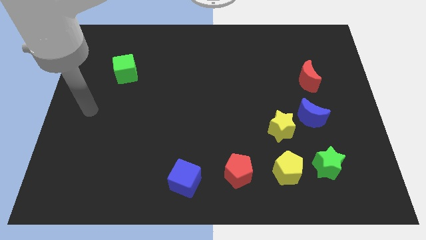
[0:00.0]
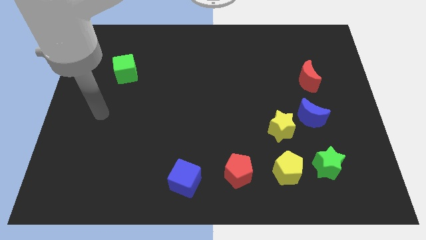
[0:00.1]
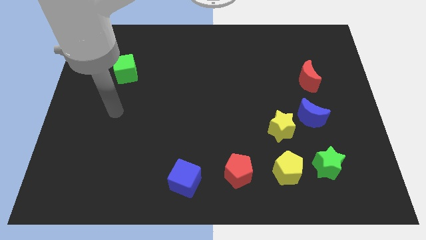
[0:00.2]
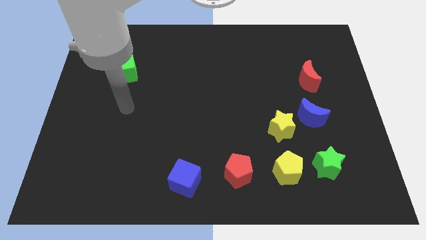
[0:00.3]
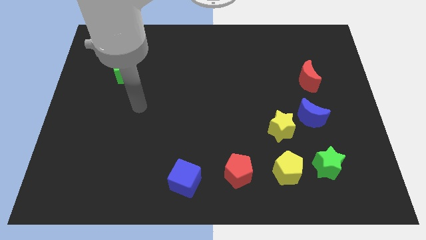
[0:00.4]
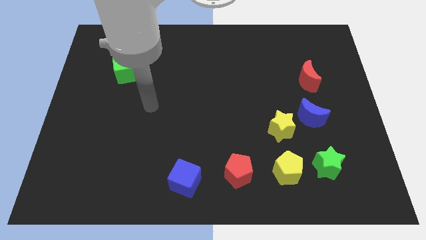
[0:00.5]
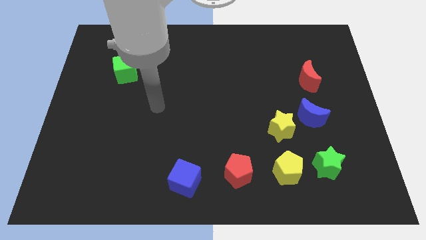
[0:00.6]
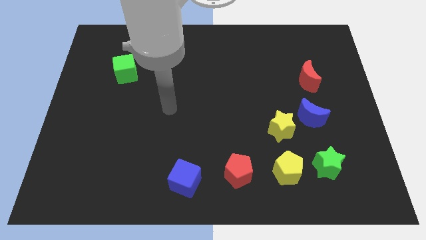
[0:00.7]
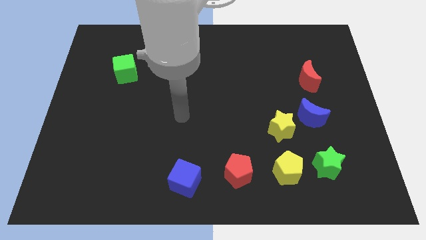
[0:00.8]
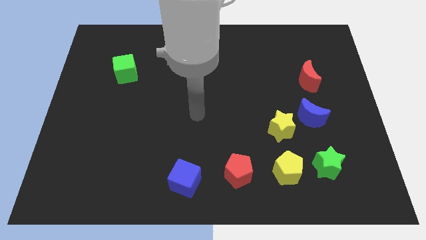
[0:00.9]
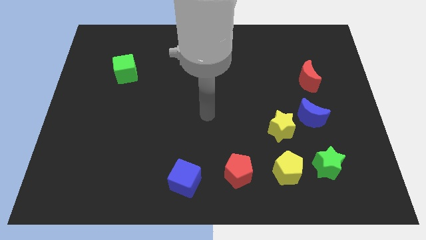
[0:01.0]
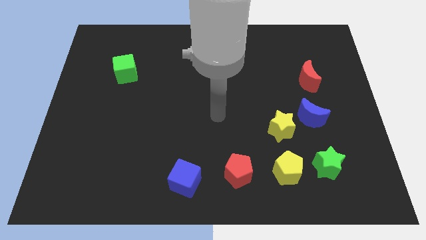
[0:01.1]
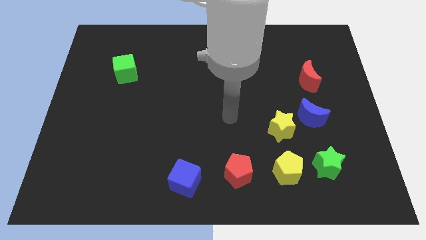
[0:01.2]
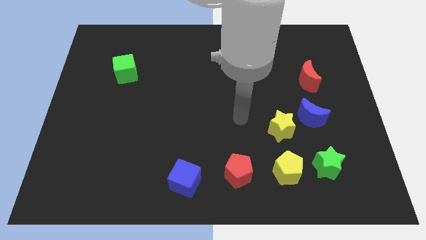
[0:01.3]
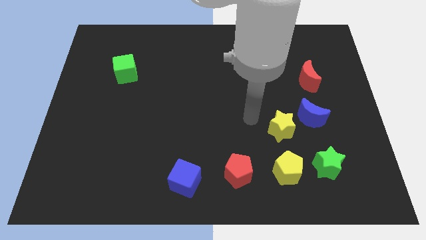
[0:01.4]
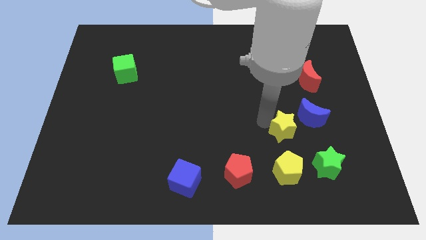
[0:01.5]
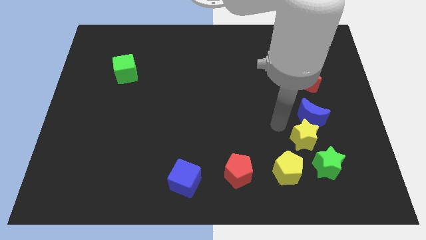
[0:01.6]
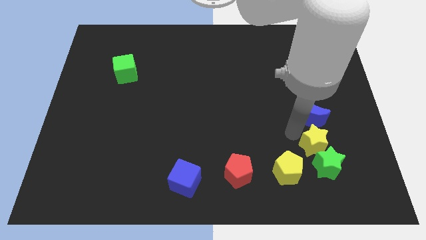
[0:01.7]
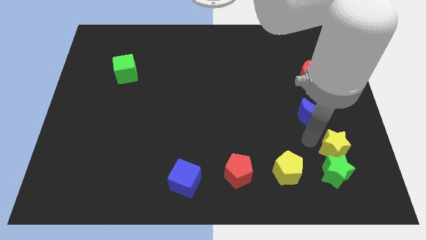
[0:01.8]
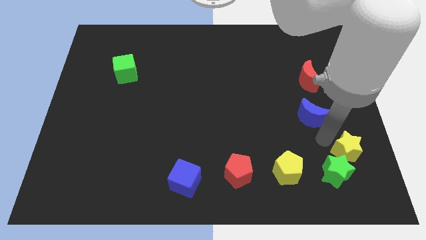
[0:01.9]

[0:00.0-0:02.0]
separate the blue moon from the yellow star

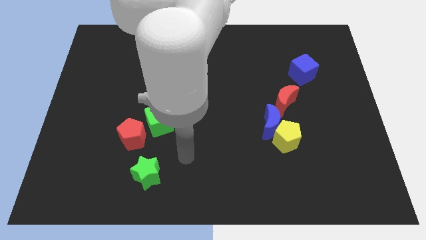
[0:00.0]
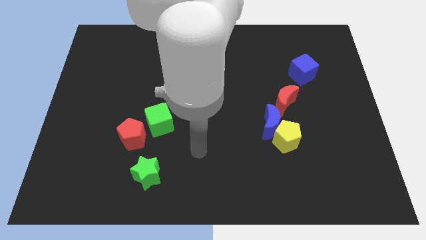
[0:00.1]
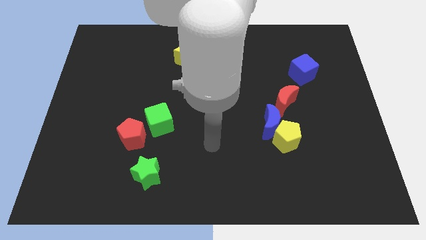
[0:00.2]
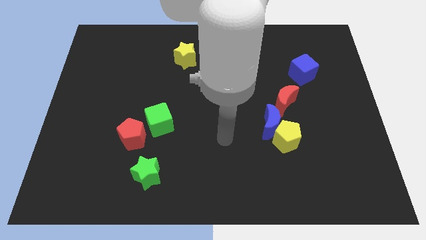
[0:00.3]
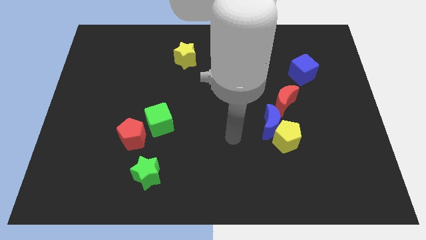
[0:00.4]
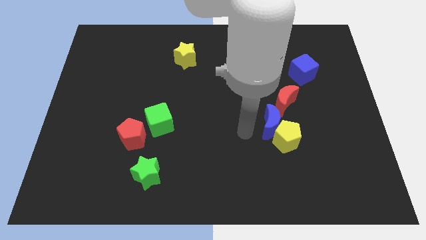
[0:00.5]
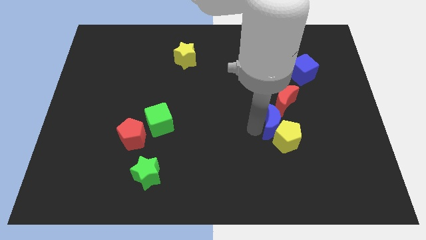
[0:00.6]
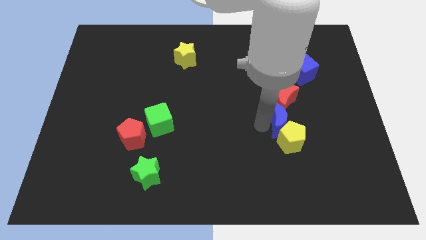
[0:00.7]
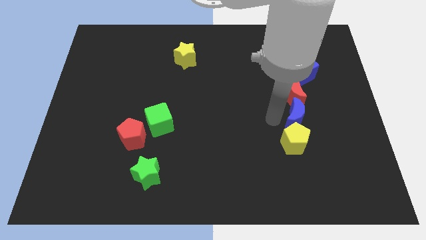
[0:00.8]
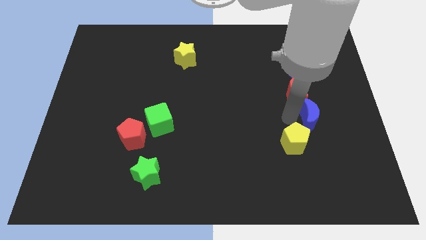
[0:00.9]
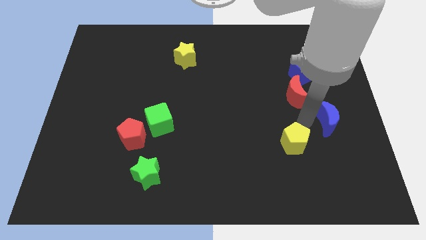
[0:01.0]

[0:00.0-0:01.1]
move the yellow pentagon away from the blue moon

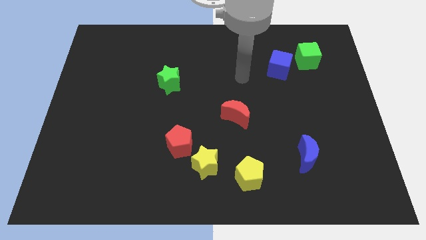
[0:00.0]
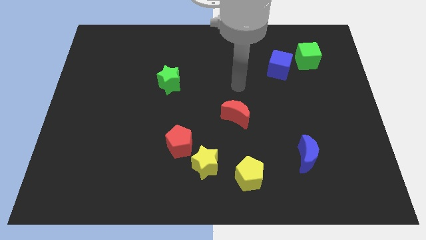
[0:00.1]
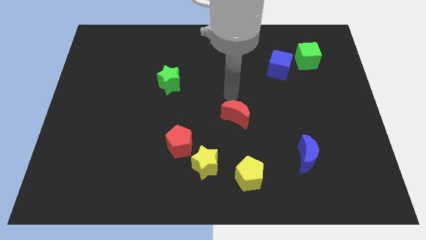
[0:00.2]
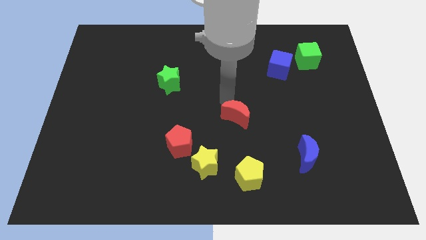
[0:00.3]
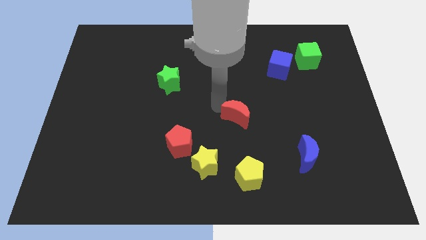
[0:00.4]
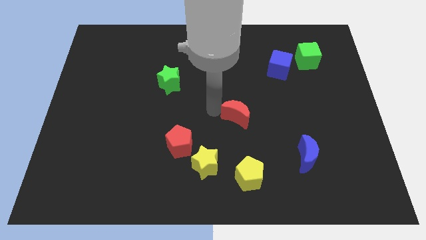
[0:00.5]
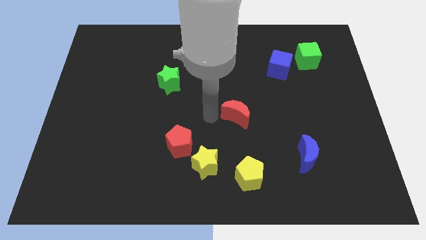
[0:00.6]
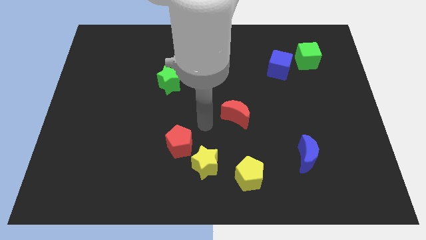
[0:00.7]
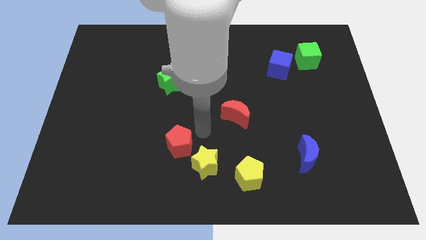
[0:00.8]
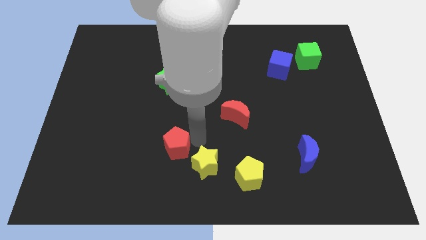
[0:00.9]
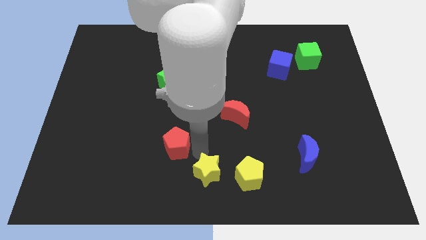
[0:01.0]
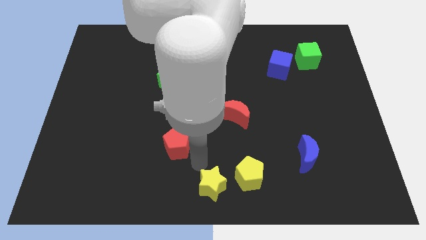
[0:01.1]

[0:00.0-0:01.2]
separate the red pentagon from the yellow star

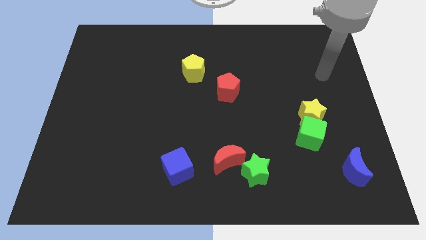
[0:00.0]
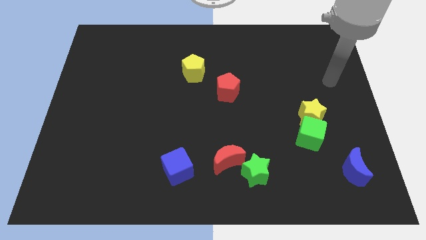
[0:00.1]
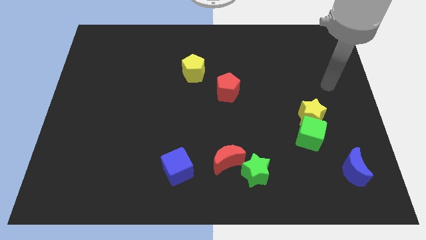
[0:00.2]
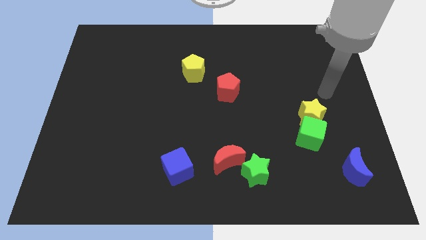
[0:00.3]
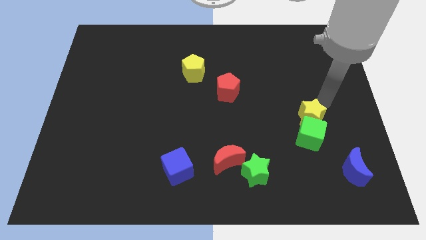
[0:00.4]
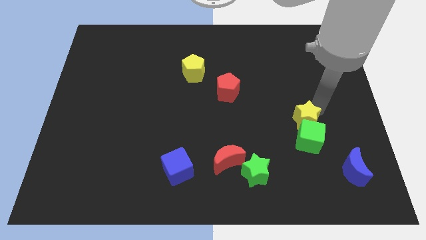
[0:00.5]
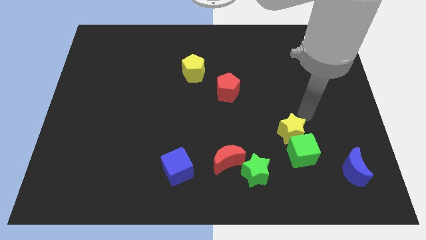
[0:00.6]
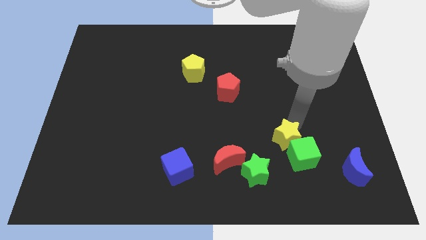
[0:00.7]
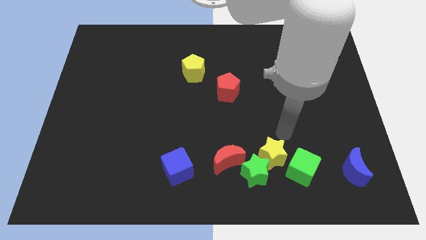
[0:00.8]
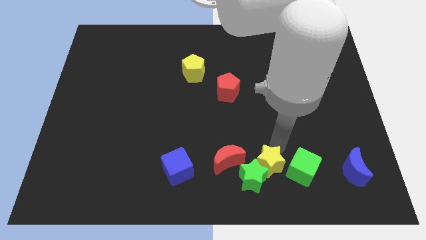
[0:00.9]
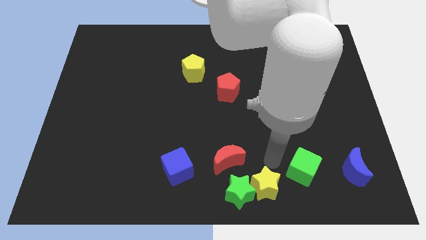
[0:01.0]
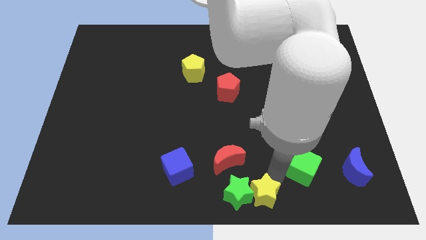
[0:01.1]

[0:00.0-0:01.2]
move the green cube away from the yellow star

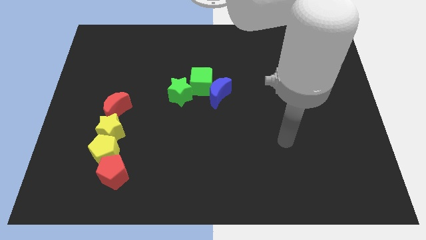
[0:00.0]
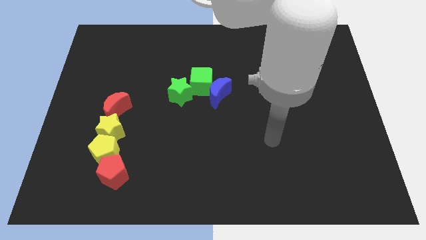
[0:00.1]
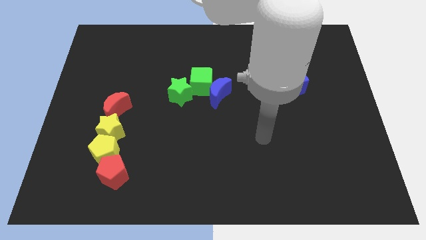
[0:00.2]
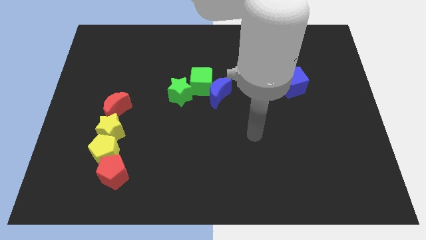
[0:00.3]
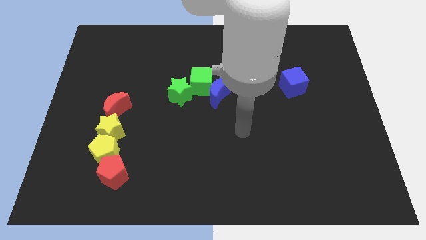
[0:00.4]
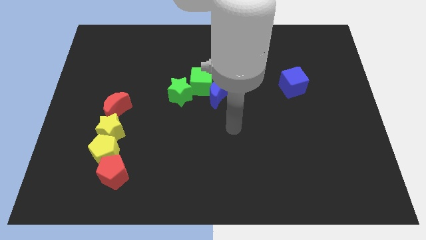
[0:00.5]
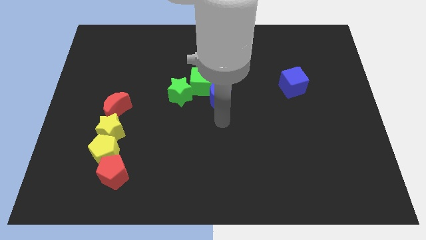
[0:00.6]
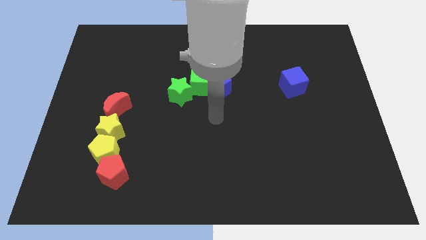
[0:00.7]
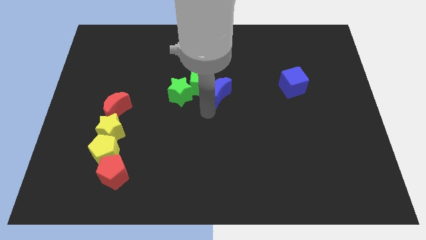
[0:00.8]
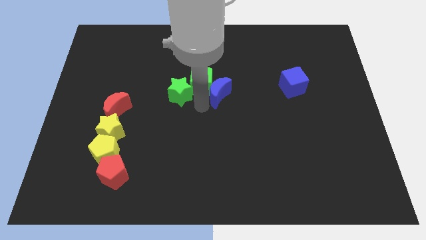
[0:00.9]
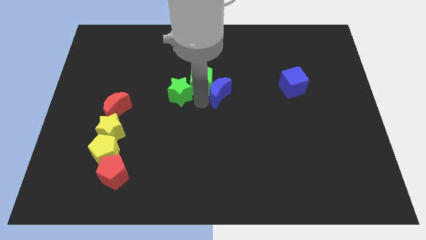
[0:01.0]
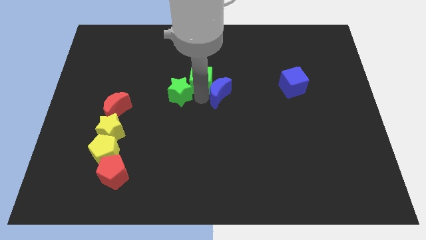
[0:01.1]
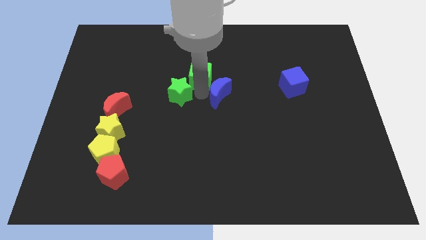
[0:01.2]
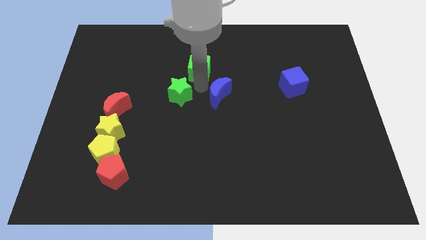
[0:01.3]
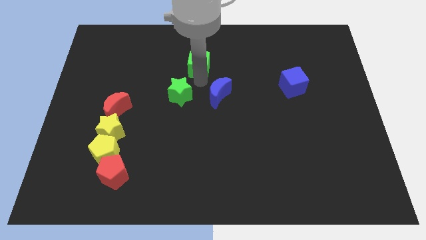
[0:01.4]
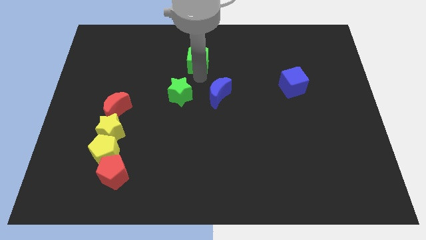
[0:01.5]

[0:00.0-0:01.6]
move the green cube away from the blue moon and green star

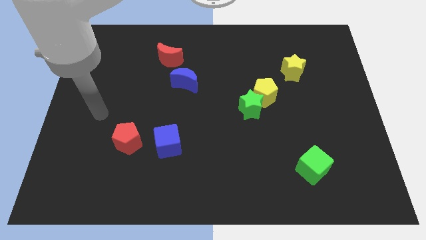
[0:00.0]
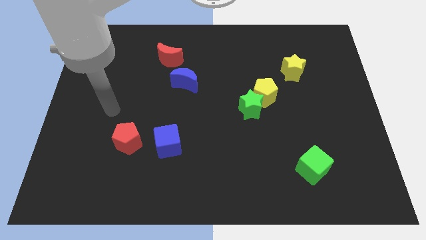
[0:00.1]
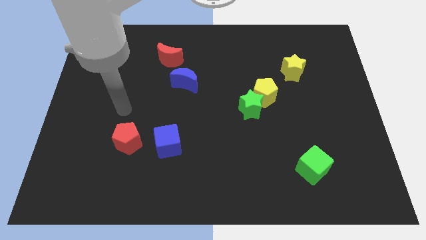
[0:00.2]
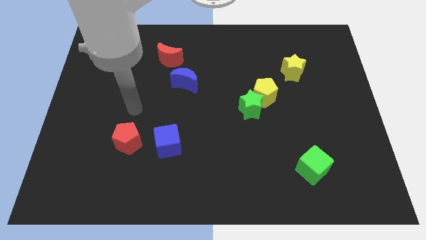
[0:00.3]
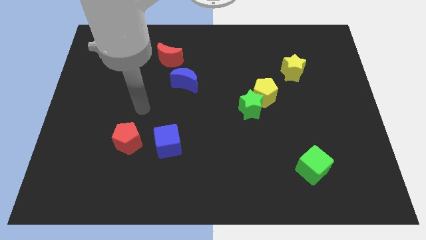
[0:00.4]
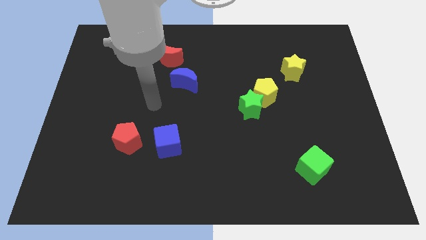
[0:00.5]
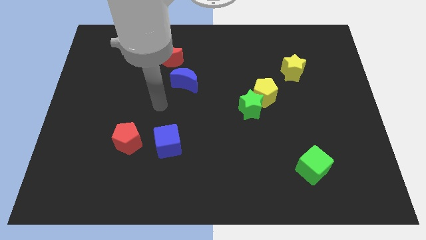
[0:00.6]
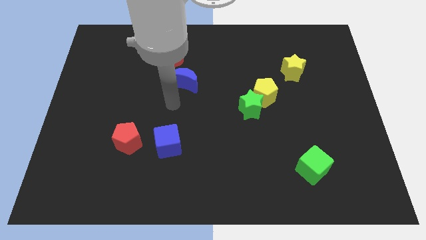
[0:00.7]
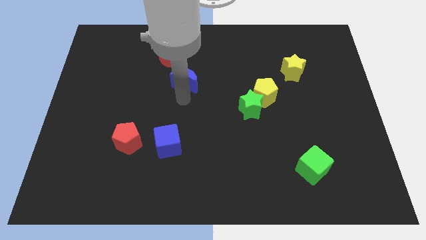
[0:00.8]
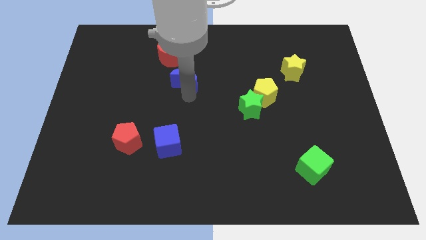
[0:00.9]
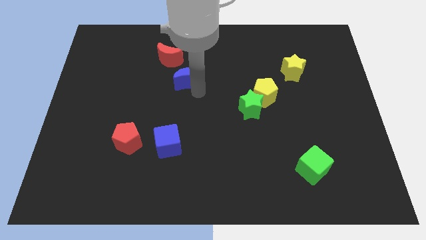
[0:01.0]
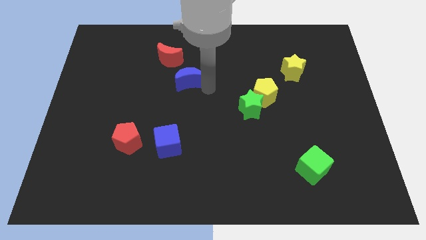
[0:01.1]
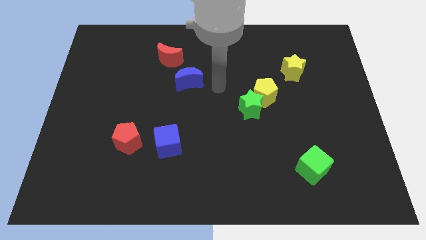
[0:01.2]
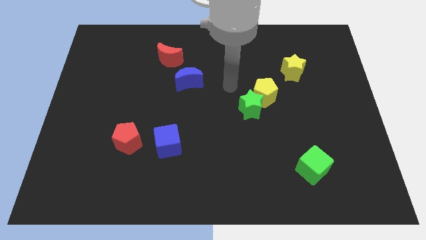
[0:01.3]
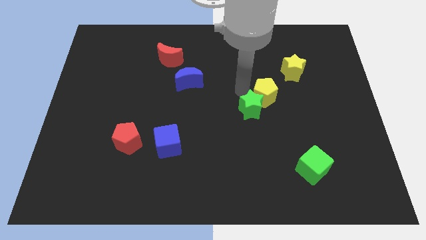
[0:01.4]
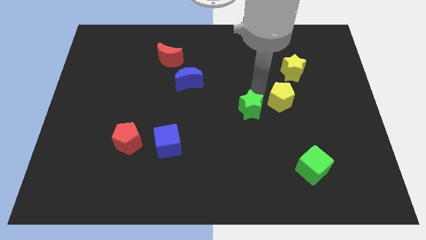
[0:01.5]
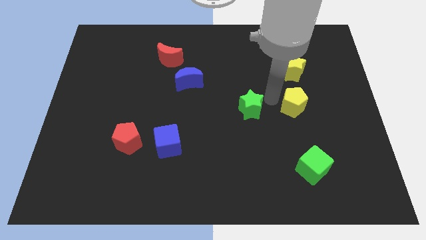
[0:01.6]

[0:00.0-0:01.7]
separate the green star from the yellow pentagon

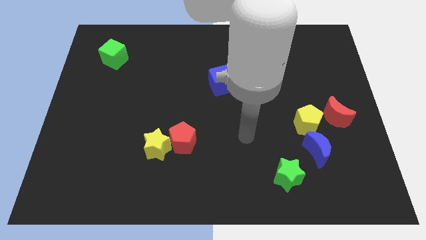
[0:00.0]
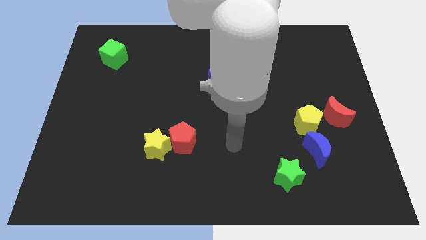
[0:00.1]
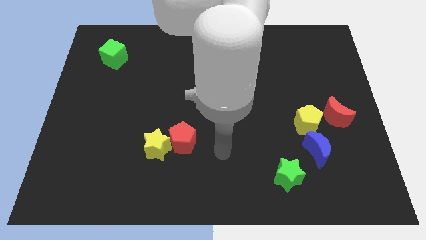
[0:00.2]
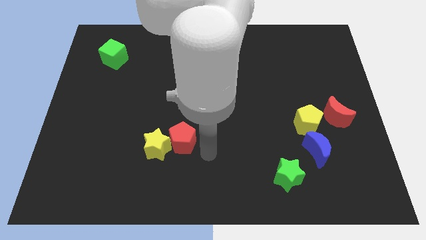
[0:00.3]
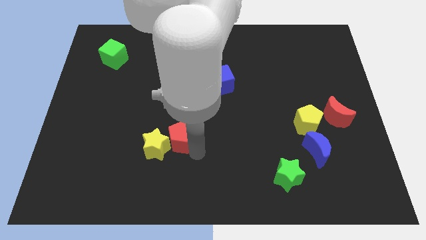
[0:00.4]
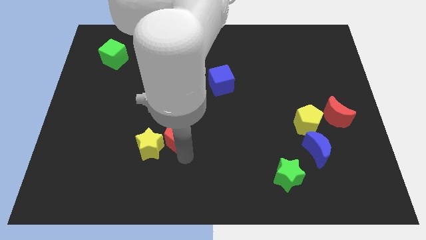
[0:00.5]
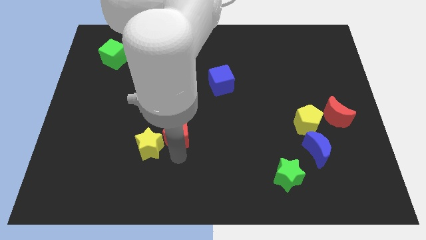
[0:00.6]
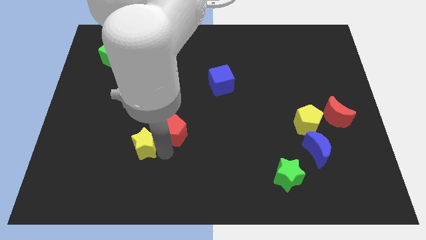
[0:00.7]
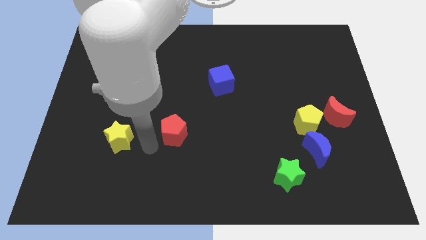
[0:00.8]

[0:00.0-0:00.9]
move the red pentagon away from the yellow star
